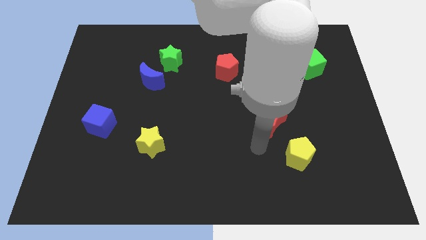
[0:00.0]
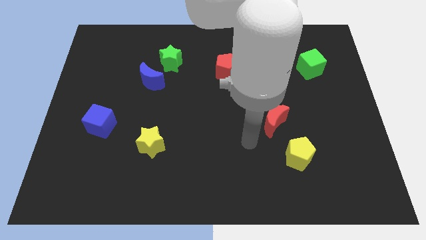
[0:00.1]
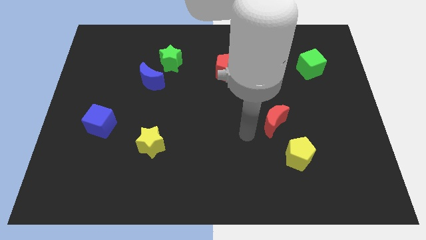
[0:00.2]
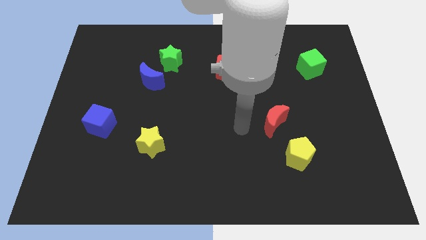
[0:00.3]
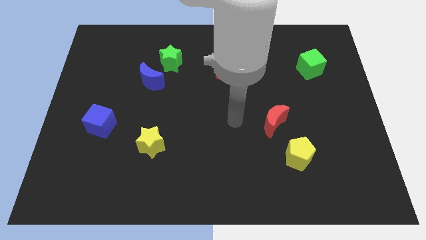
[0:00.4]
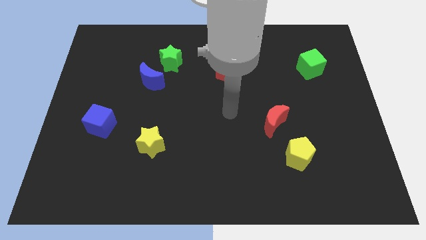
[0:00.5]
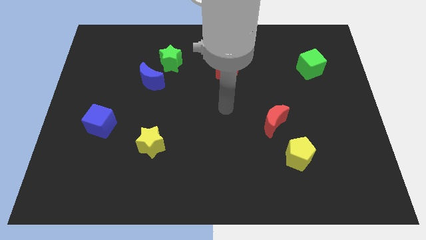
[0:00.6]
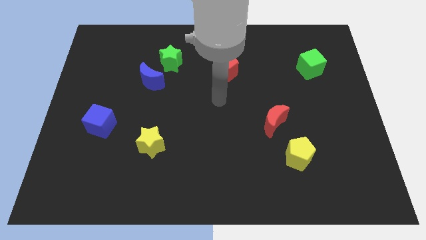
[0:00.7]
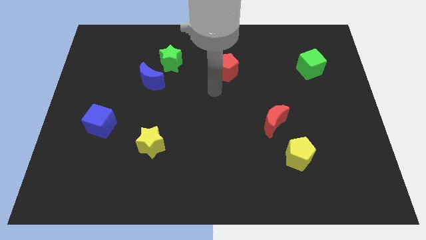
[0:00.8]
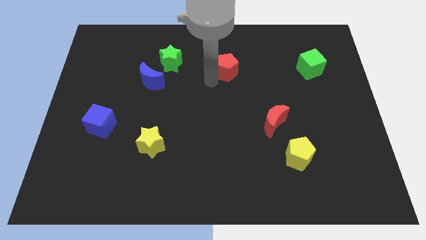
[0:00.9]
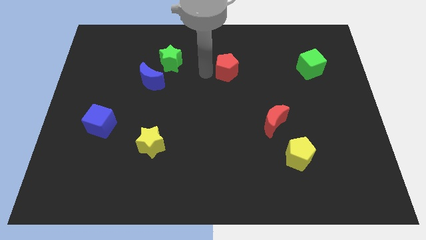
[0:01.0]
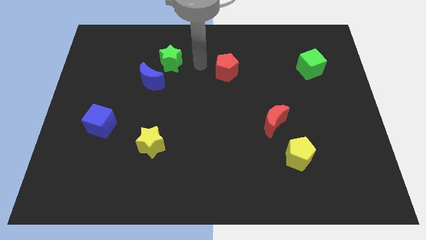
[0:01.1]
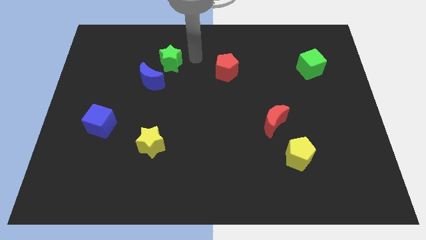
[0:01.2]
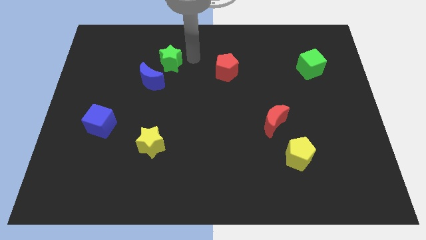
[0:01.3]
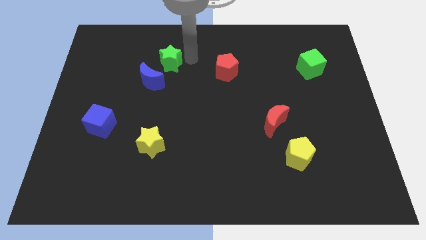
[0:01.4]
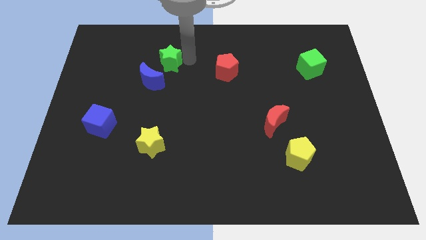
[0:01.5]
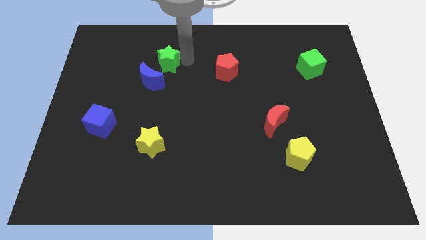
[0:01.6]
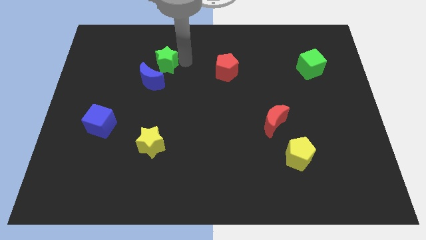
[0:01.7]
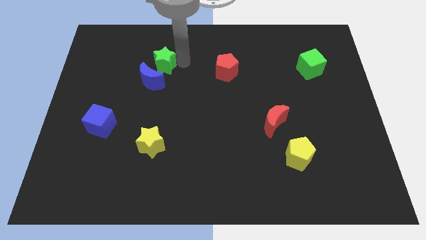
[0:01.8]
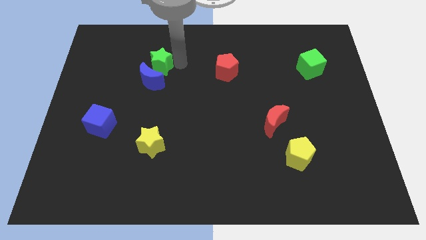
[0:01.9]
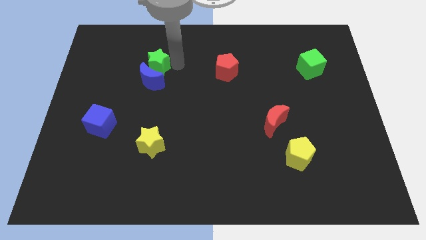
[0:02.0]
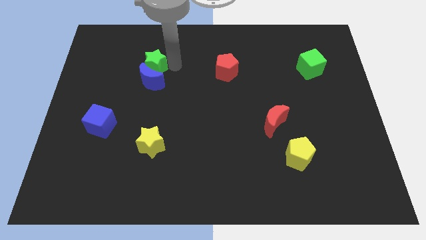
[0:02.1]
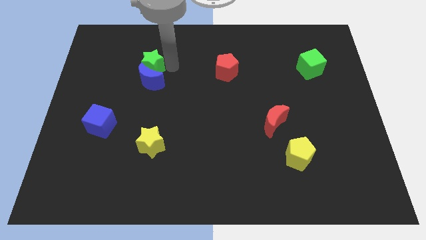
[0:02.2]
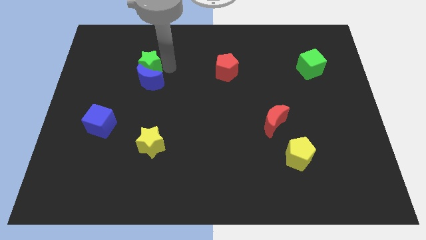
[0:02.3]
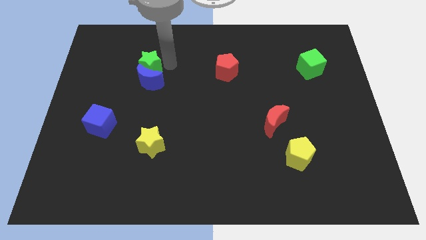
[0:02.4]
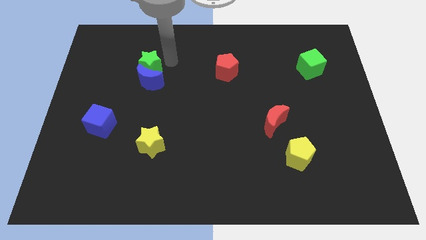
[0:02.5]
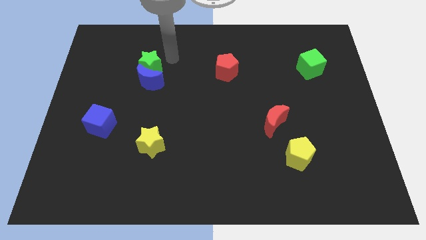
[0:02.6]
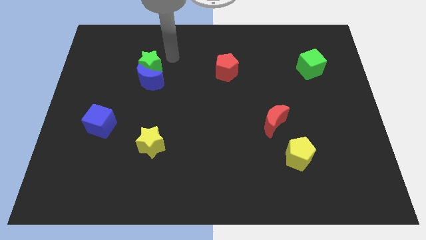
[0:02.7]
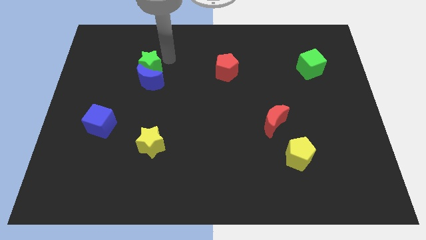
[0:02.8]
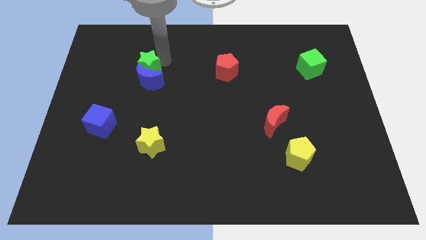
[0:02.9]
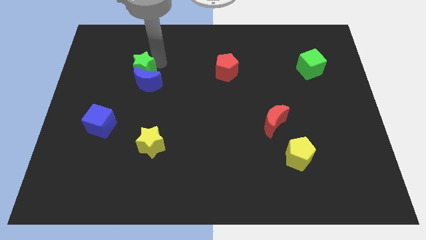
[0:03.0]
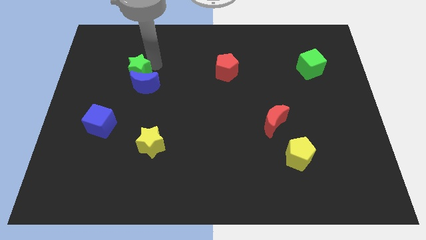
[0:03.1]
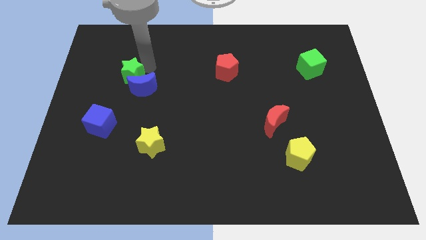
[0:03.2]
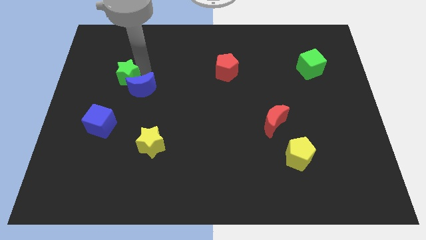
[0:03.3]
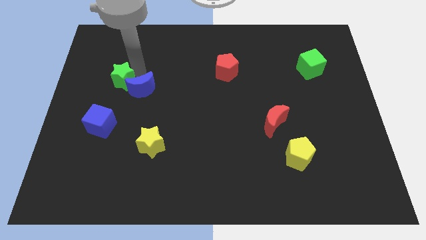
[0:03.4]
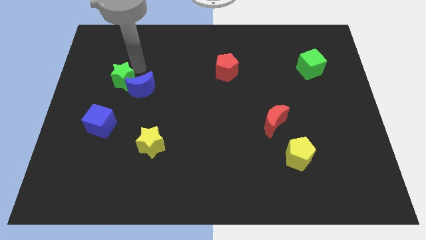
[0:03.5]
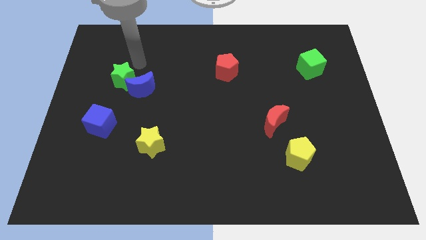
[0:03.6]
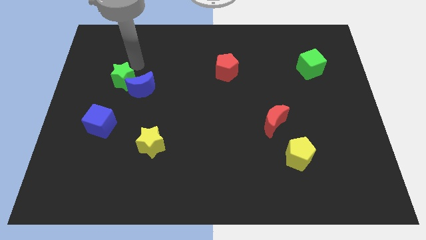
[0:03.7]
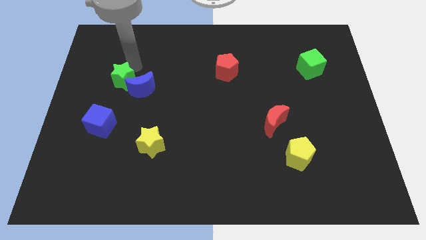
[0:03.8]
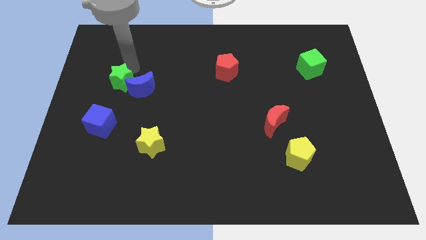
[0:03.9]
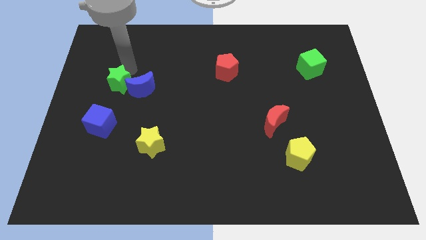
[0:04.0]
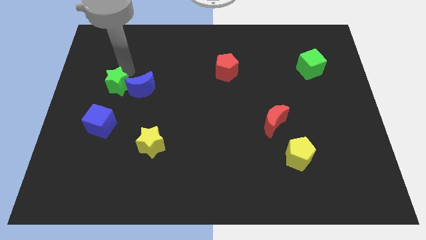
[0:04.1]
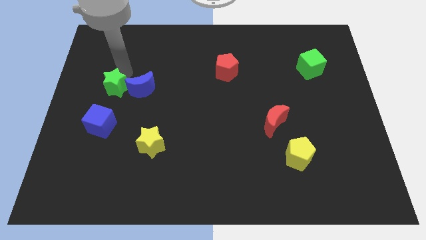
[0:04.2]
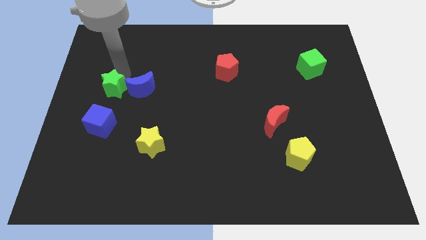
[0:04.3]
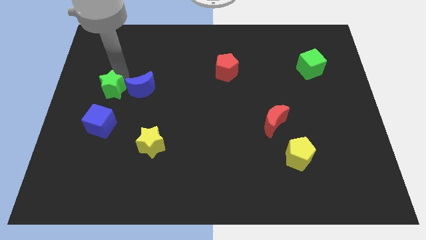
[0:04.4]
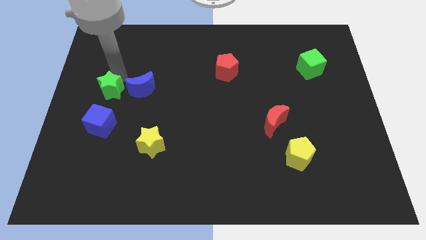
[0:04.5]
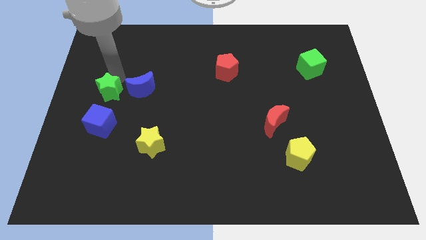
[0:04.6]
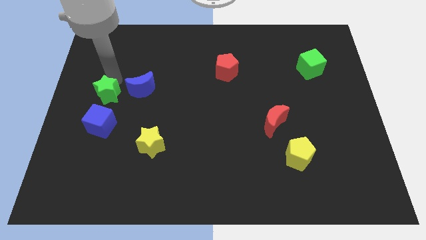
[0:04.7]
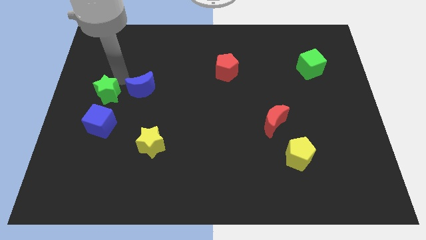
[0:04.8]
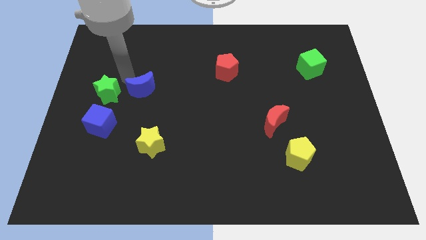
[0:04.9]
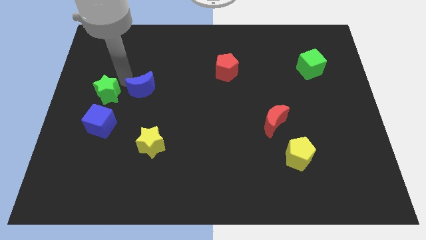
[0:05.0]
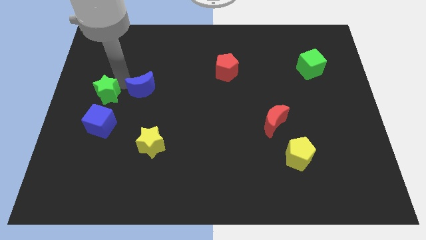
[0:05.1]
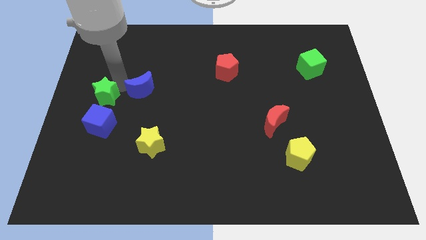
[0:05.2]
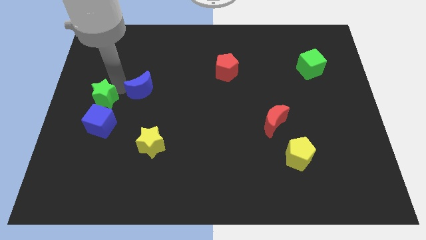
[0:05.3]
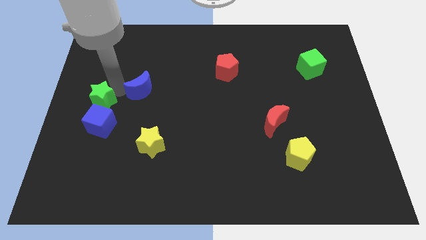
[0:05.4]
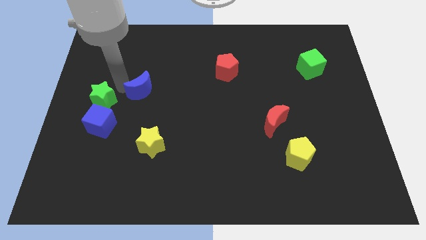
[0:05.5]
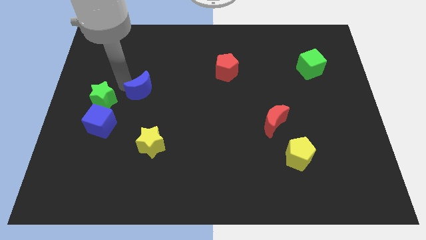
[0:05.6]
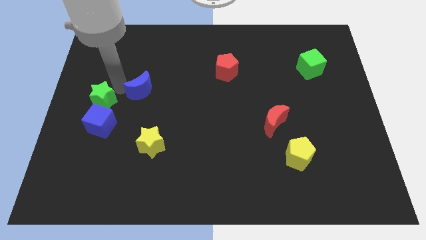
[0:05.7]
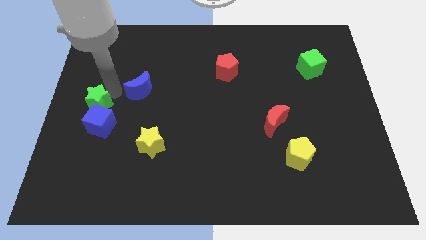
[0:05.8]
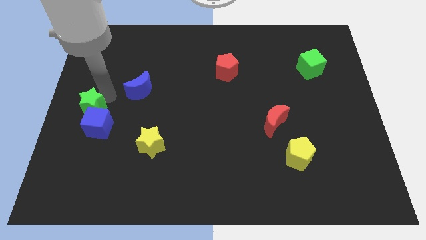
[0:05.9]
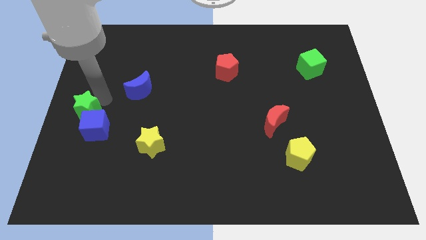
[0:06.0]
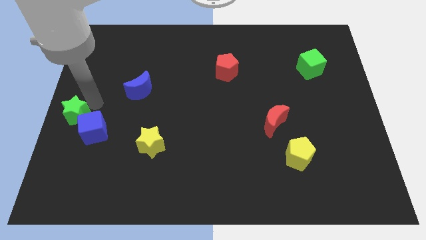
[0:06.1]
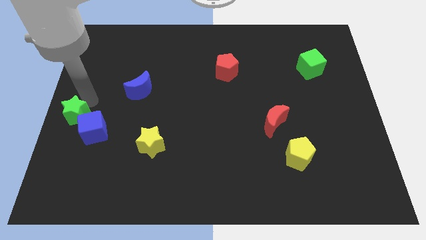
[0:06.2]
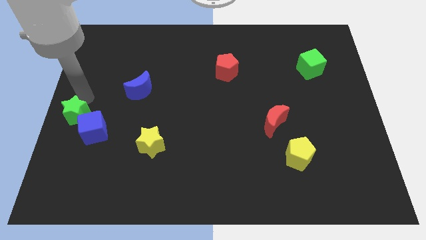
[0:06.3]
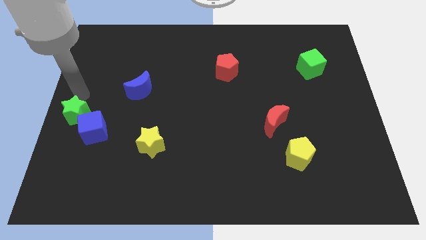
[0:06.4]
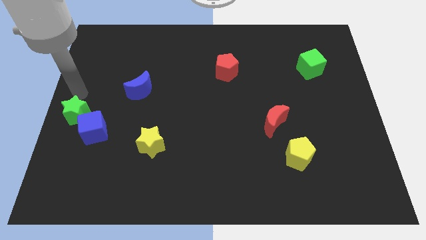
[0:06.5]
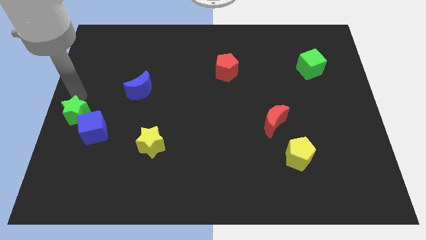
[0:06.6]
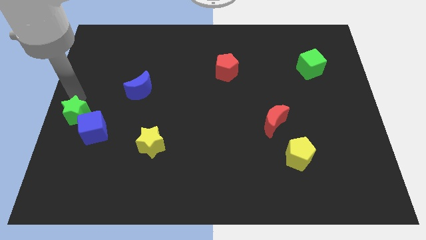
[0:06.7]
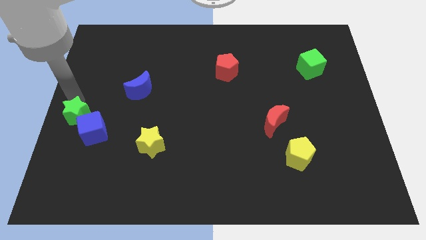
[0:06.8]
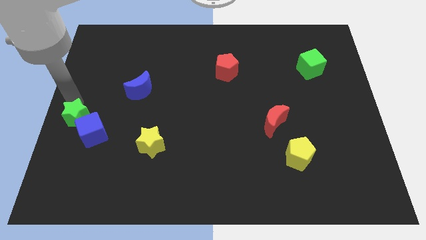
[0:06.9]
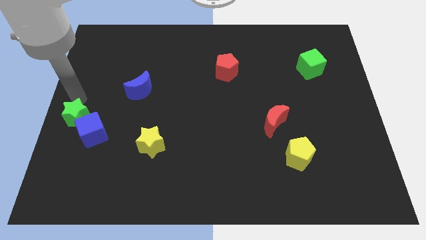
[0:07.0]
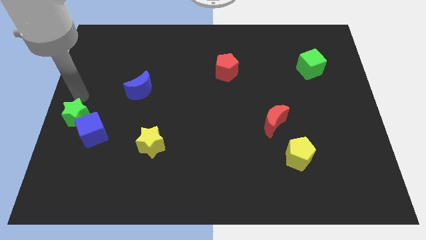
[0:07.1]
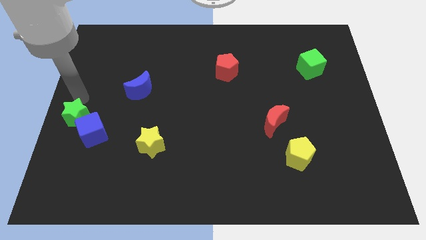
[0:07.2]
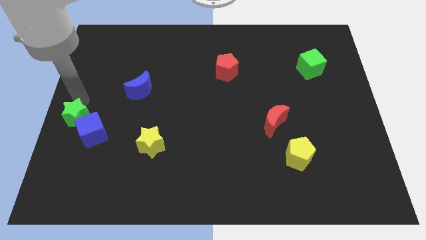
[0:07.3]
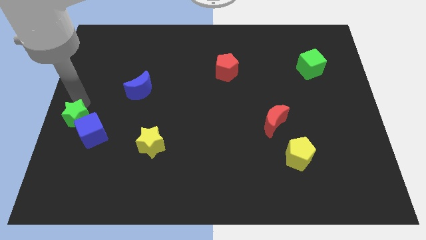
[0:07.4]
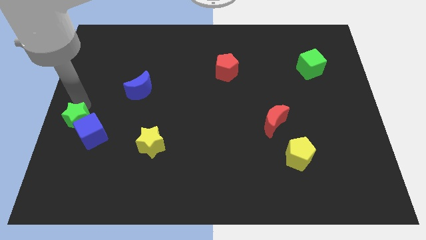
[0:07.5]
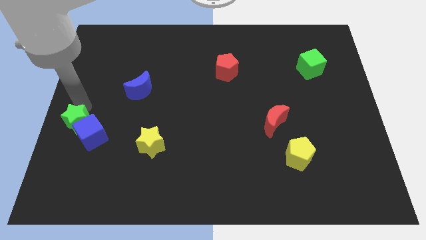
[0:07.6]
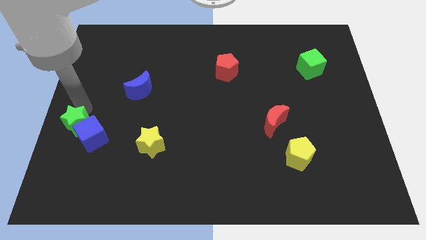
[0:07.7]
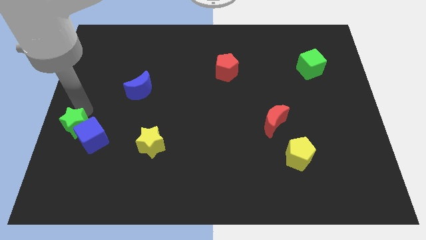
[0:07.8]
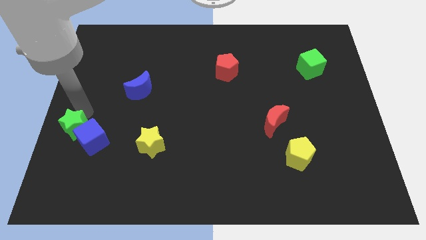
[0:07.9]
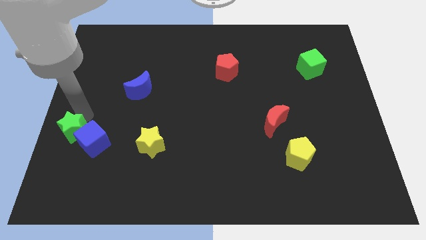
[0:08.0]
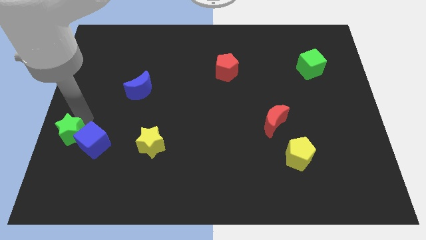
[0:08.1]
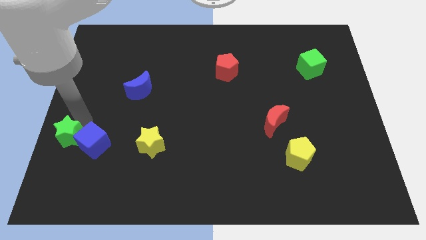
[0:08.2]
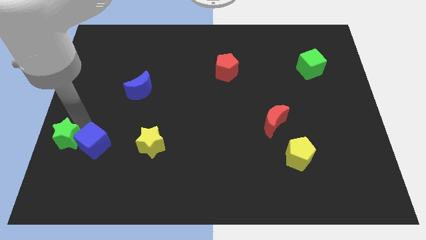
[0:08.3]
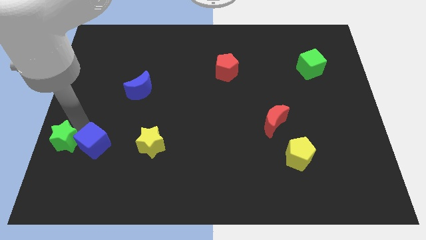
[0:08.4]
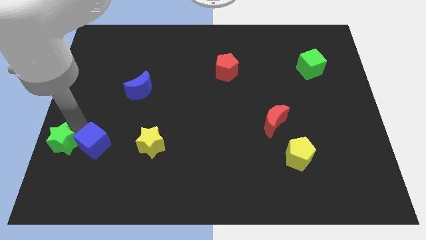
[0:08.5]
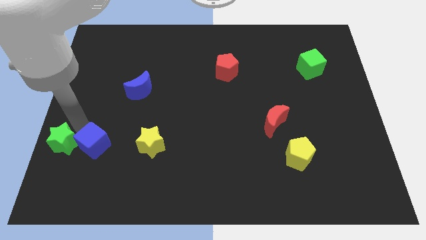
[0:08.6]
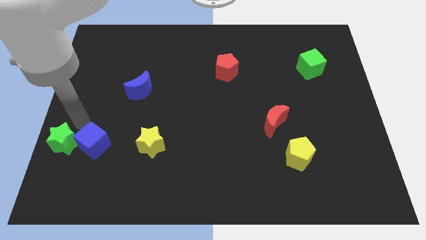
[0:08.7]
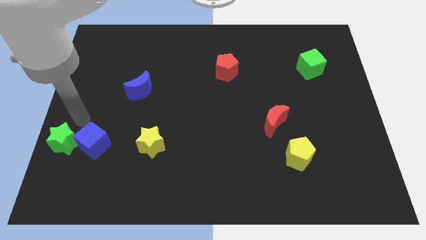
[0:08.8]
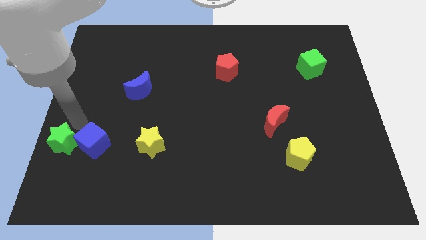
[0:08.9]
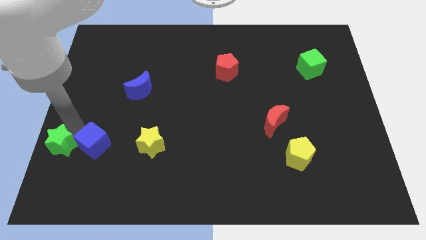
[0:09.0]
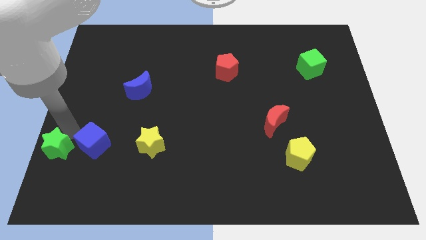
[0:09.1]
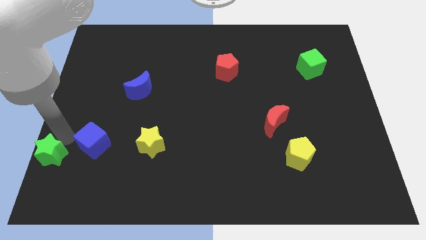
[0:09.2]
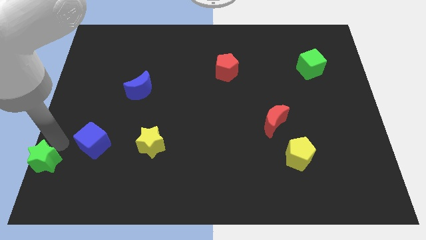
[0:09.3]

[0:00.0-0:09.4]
slide the green star to the bottom left corner
